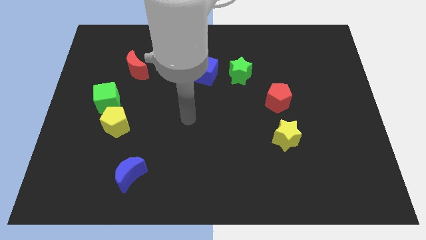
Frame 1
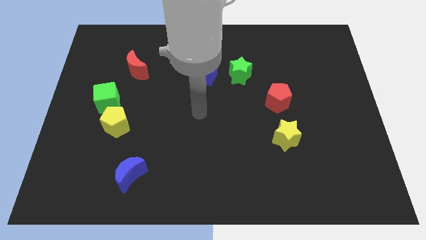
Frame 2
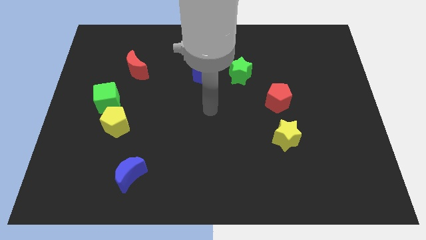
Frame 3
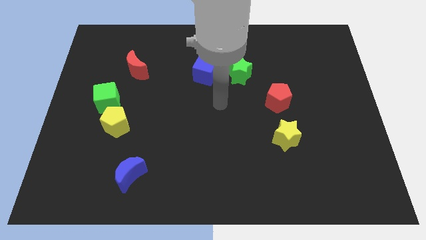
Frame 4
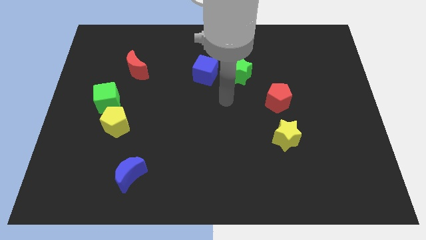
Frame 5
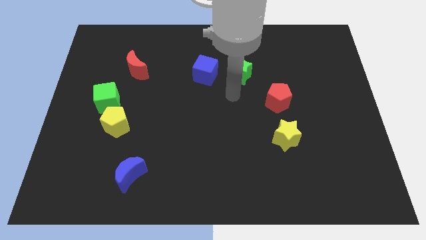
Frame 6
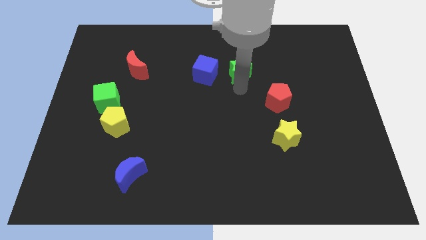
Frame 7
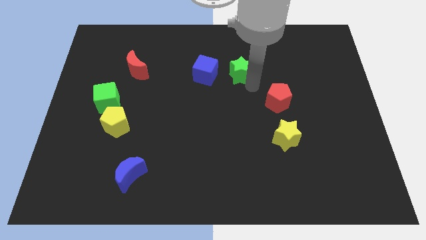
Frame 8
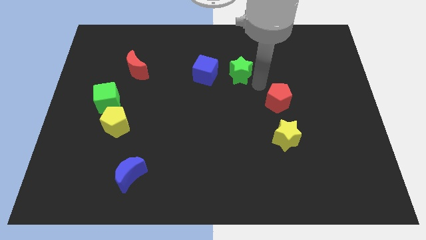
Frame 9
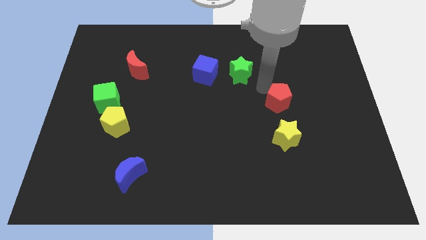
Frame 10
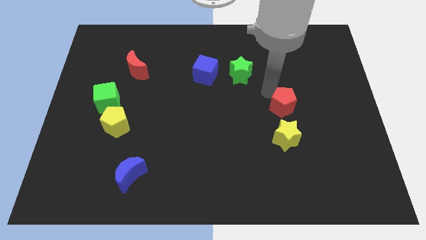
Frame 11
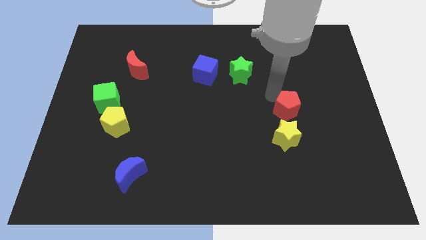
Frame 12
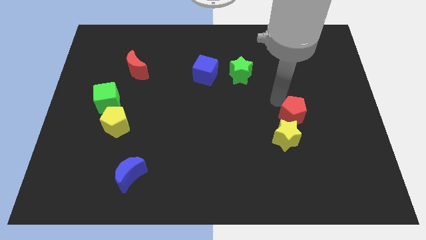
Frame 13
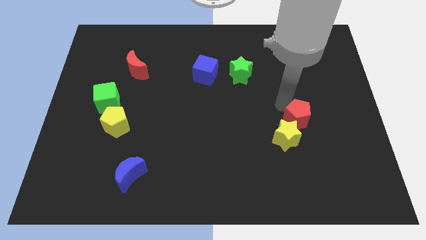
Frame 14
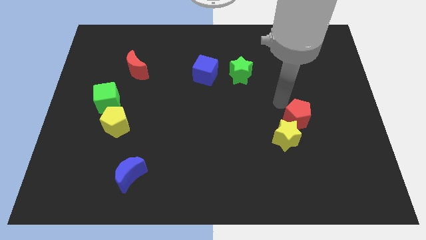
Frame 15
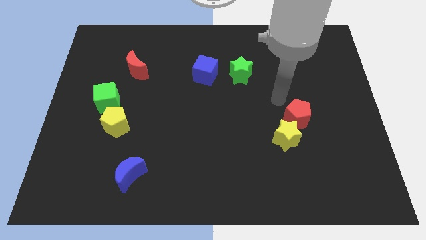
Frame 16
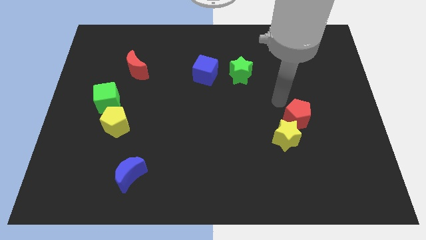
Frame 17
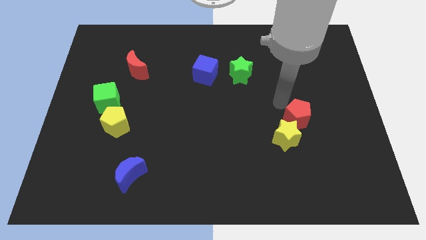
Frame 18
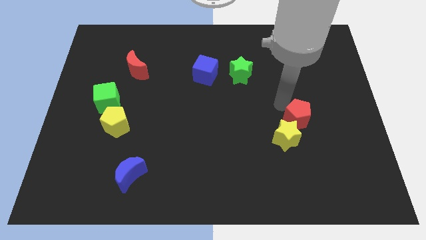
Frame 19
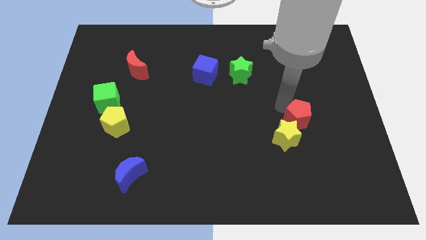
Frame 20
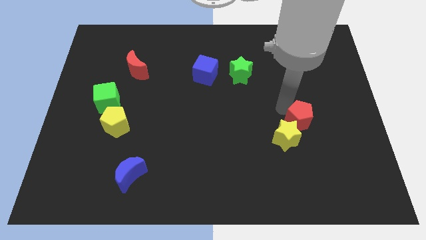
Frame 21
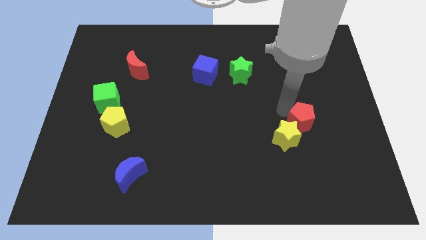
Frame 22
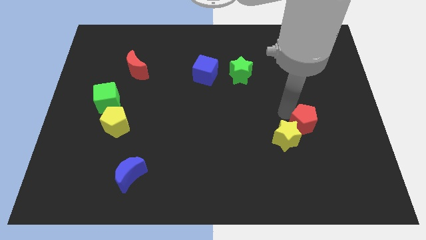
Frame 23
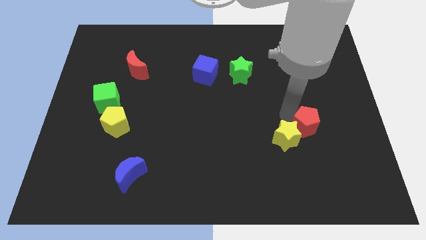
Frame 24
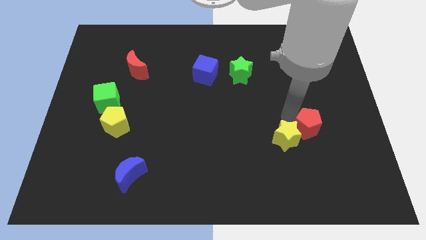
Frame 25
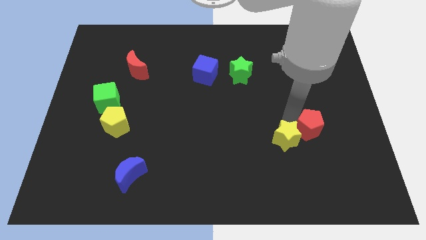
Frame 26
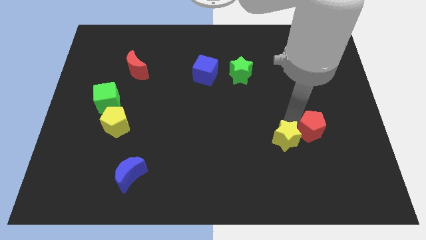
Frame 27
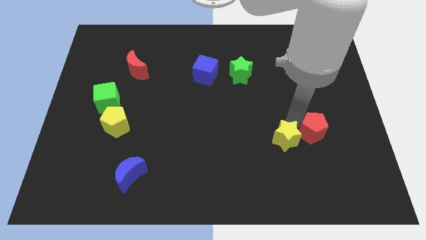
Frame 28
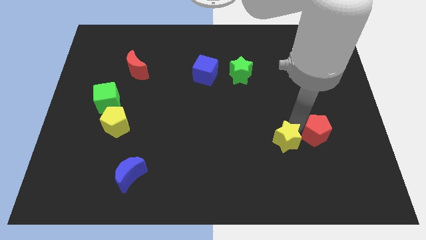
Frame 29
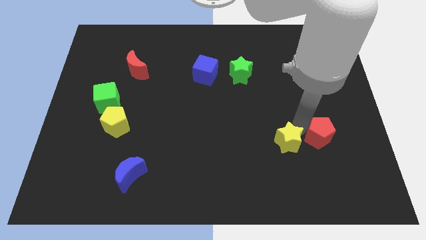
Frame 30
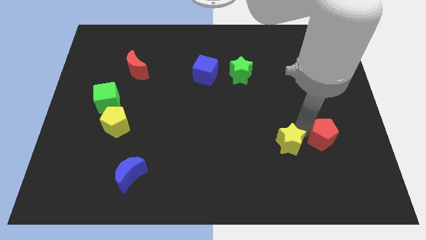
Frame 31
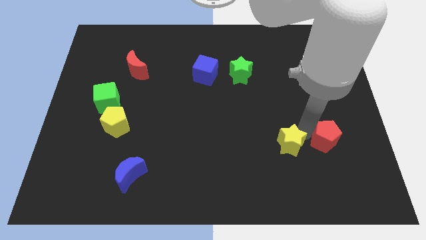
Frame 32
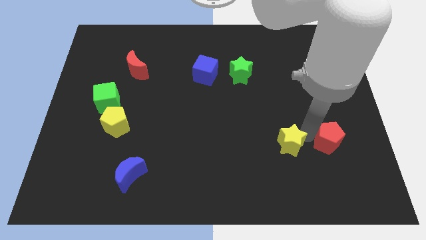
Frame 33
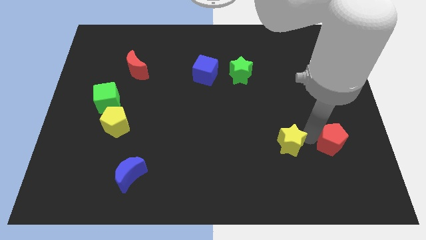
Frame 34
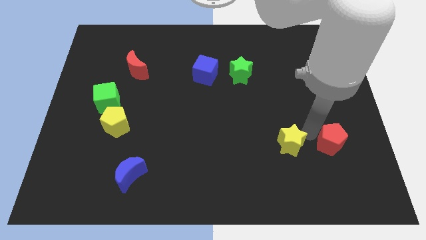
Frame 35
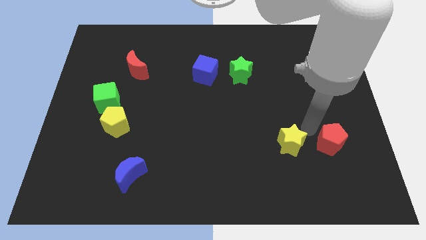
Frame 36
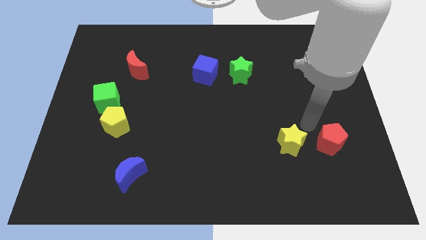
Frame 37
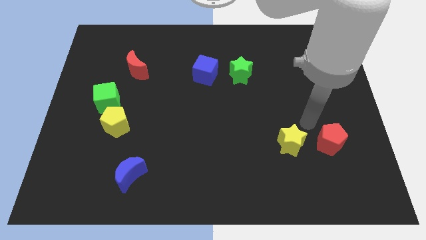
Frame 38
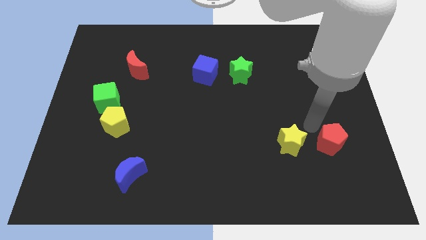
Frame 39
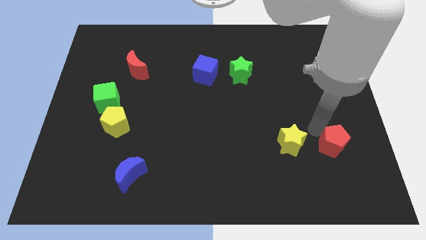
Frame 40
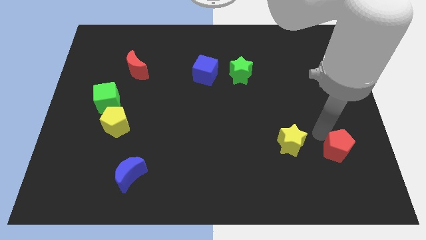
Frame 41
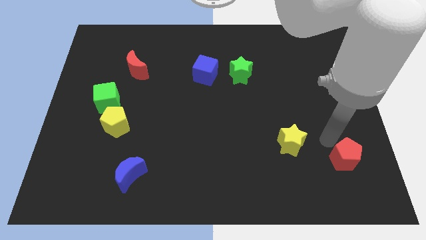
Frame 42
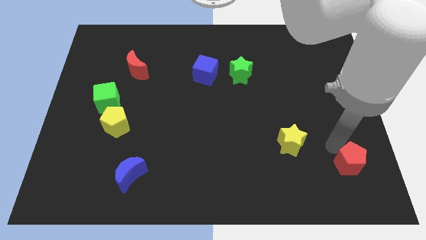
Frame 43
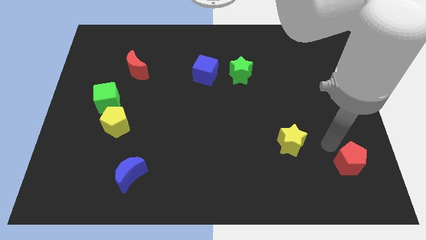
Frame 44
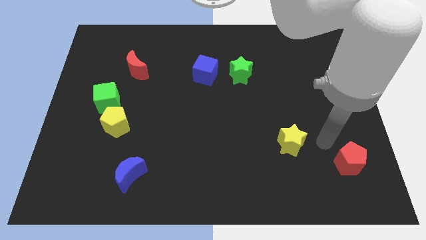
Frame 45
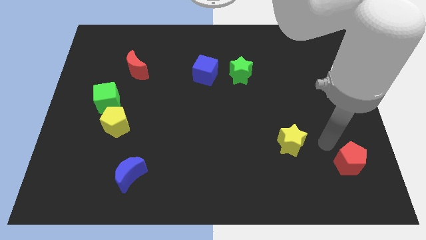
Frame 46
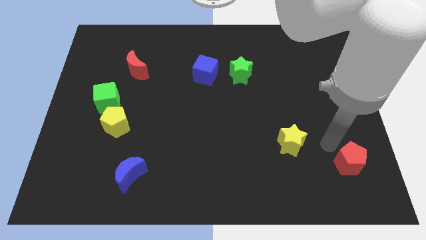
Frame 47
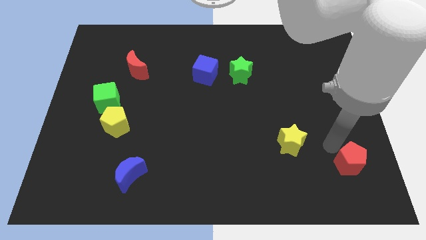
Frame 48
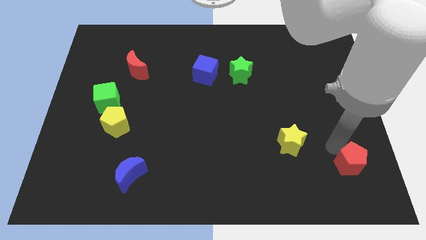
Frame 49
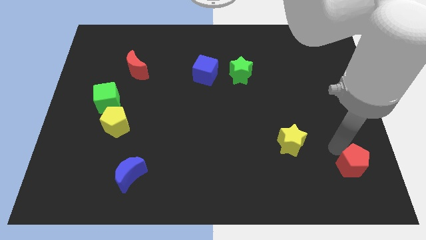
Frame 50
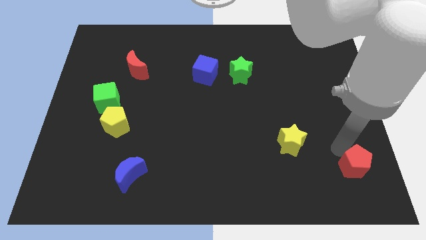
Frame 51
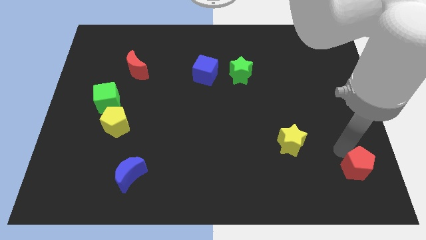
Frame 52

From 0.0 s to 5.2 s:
push the red pentagon to the bottom right

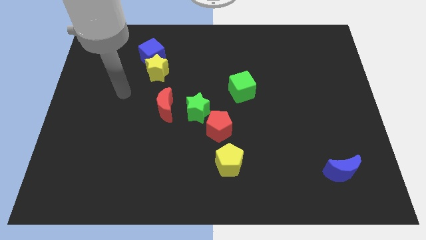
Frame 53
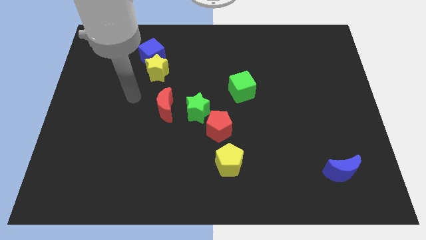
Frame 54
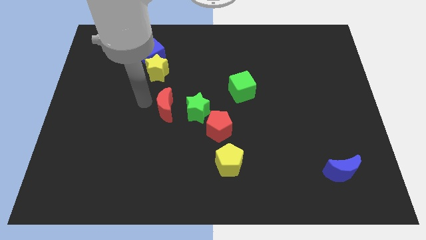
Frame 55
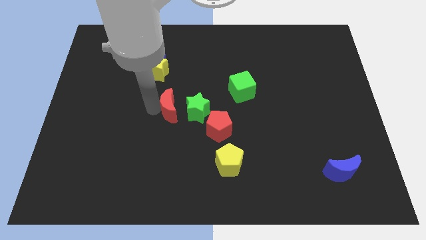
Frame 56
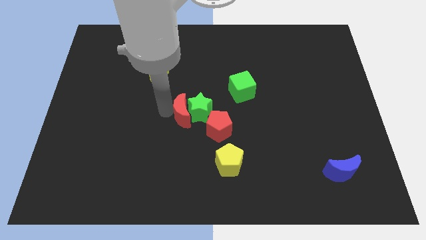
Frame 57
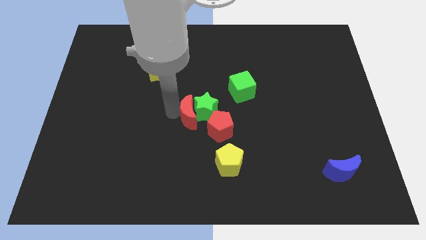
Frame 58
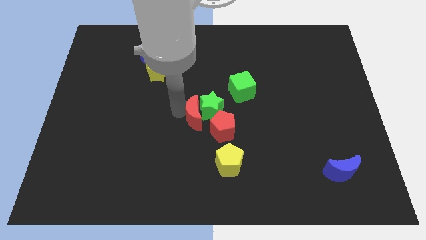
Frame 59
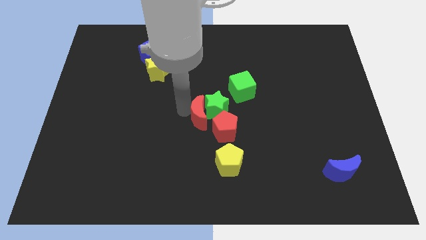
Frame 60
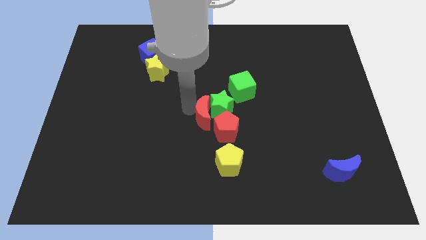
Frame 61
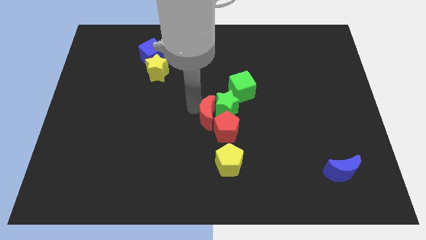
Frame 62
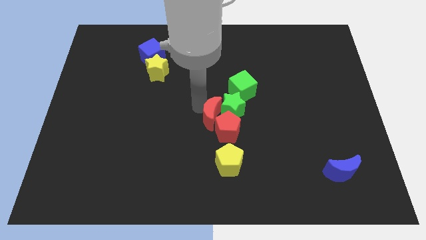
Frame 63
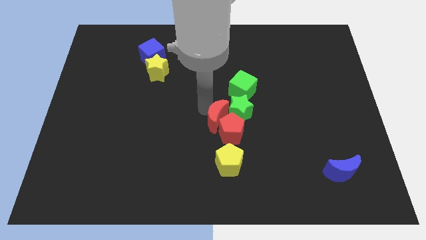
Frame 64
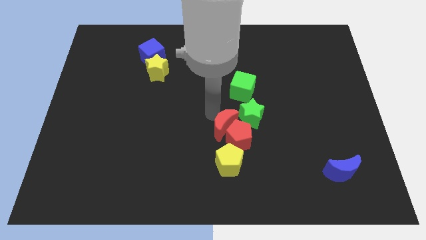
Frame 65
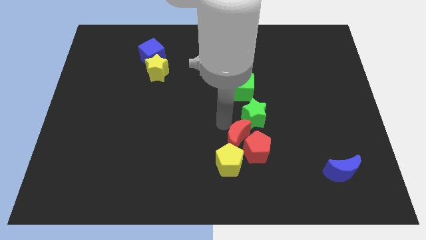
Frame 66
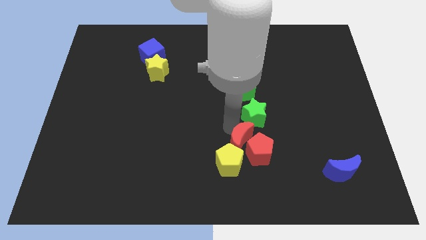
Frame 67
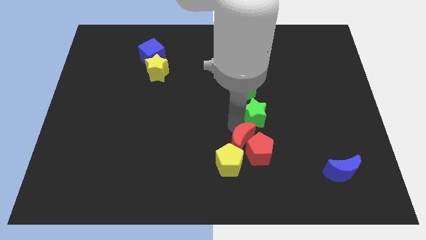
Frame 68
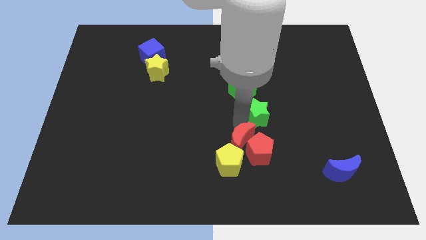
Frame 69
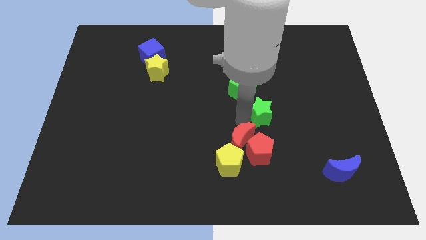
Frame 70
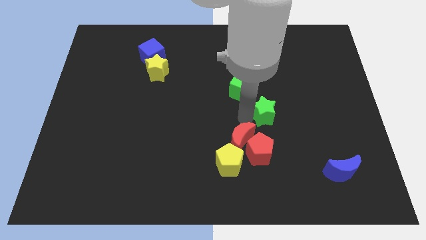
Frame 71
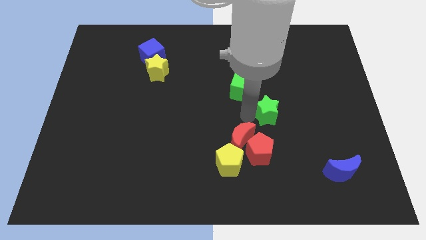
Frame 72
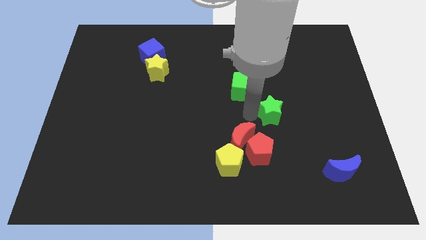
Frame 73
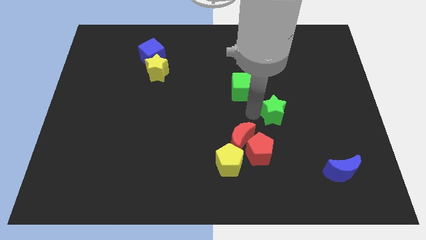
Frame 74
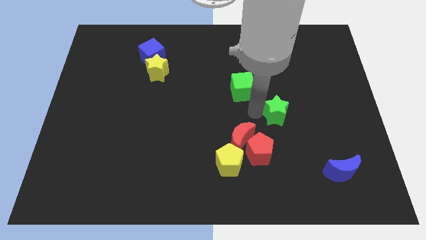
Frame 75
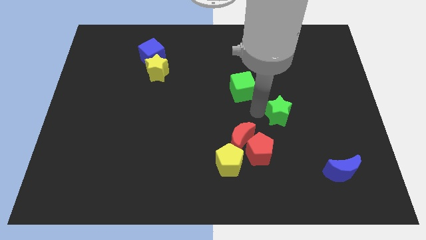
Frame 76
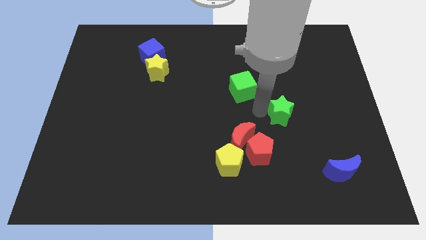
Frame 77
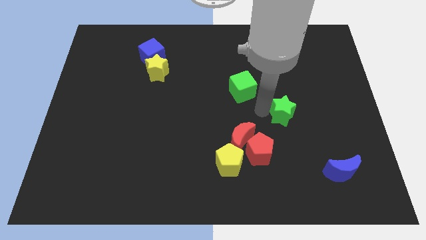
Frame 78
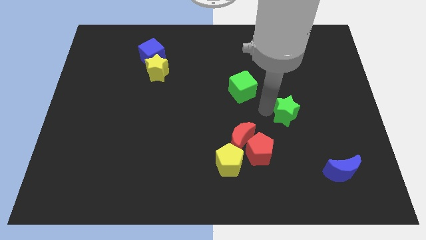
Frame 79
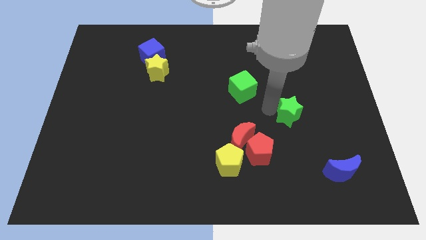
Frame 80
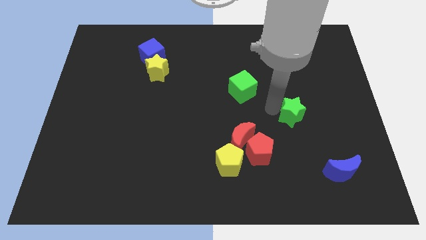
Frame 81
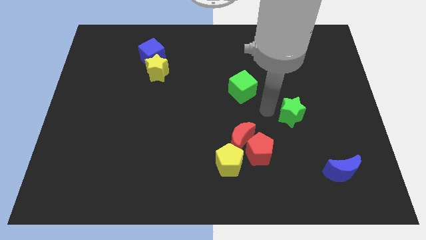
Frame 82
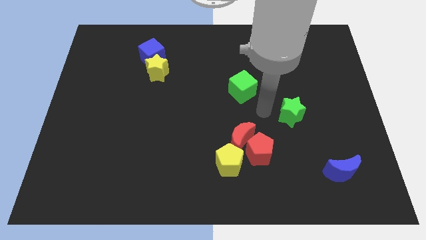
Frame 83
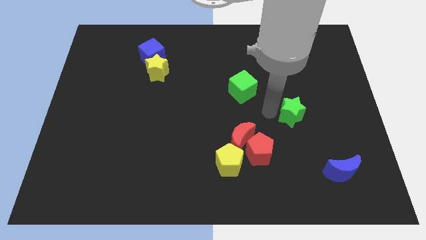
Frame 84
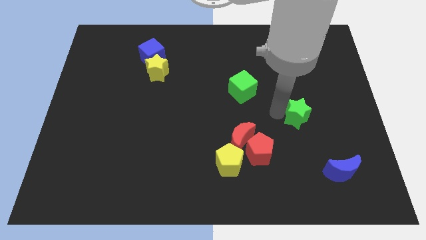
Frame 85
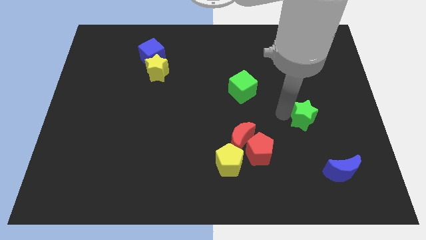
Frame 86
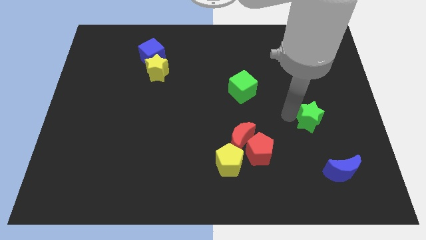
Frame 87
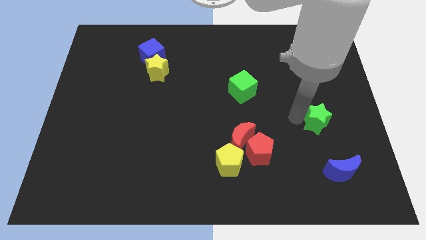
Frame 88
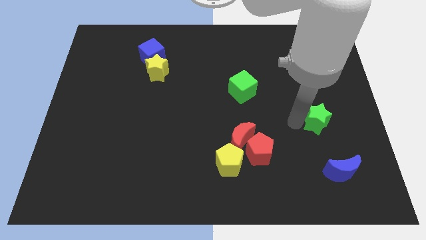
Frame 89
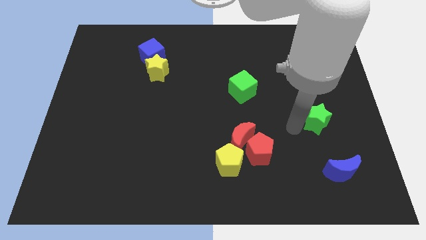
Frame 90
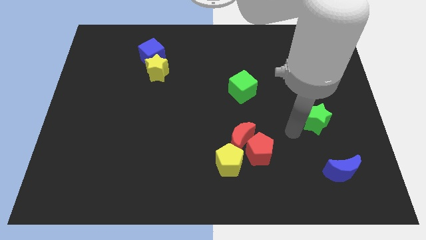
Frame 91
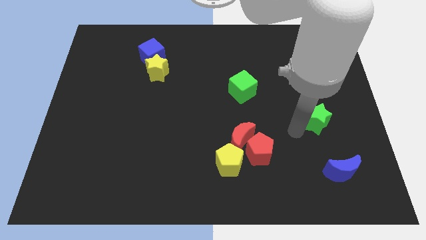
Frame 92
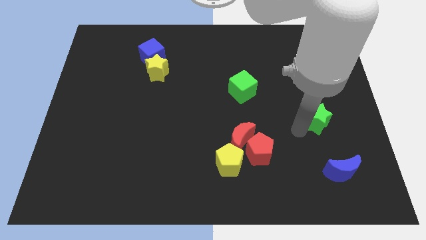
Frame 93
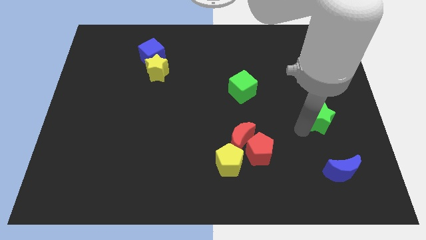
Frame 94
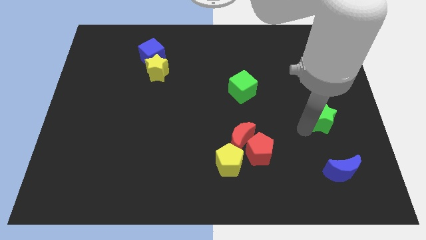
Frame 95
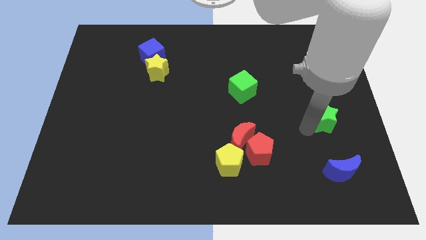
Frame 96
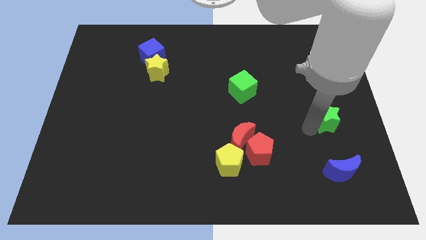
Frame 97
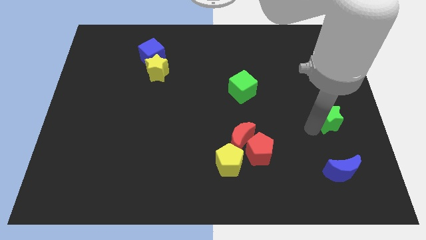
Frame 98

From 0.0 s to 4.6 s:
push the green star to the center right
